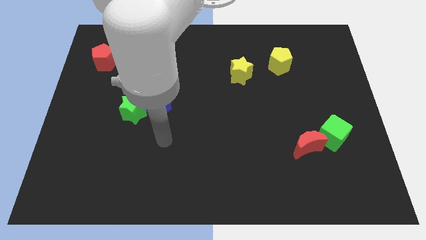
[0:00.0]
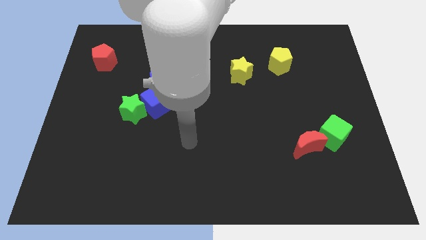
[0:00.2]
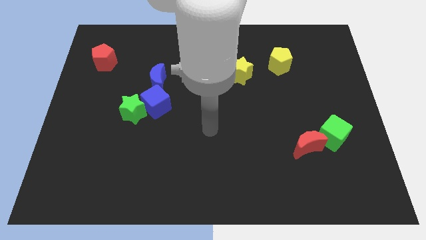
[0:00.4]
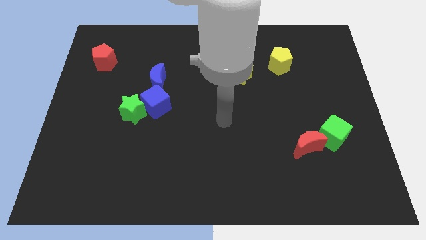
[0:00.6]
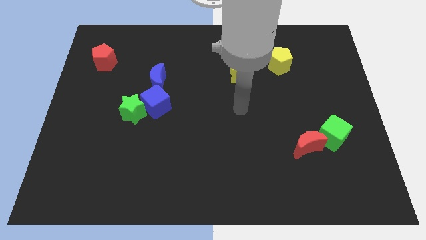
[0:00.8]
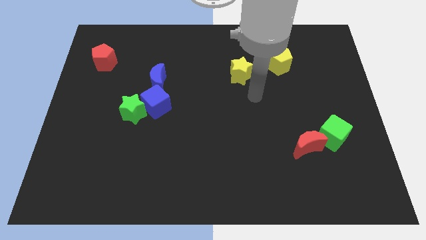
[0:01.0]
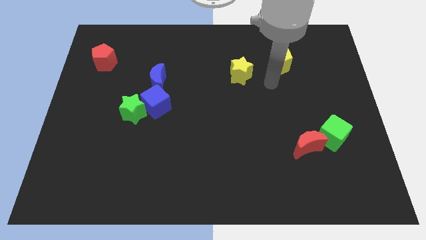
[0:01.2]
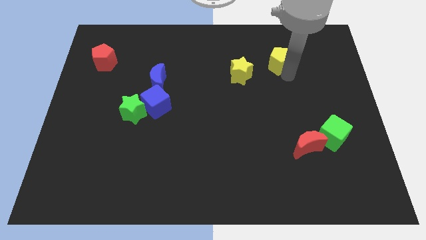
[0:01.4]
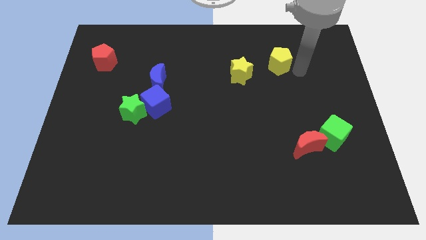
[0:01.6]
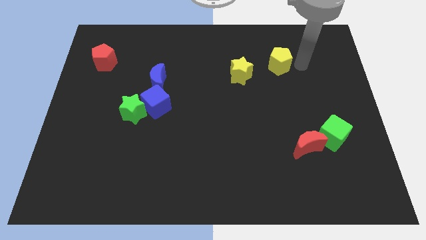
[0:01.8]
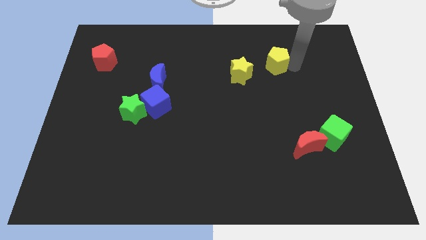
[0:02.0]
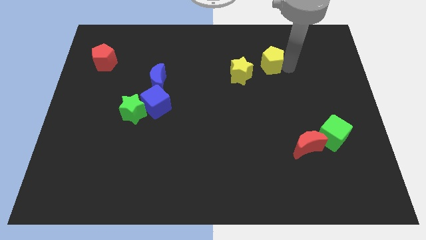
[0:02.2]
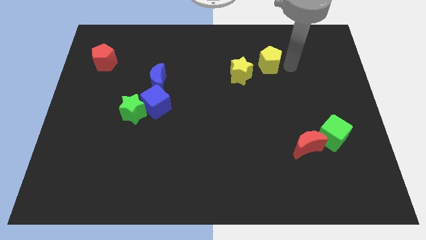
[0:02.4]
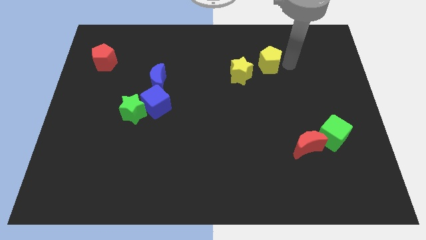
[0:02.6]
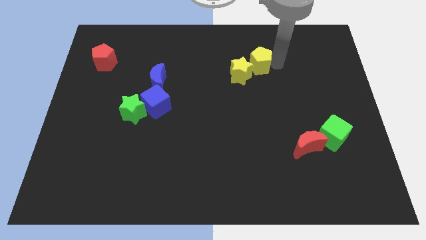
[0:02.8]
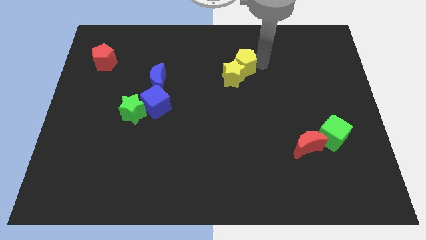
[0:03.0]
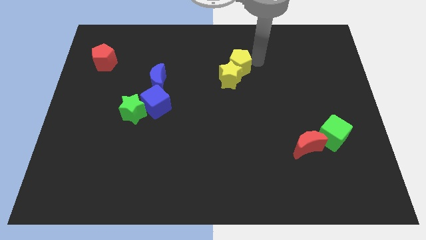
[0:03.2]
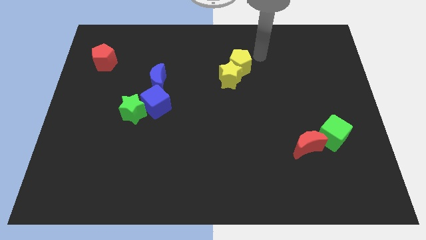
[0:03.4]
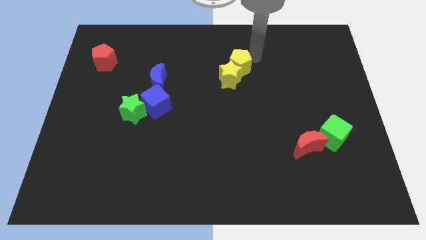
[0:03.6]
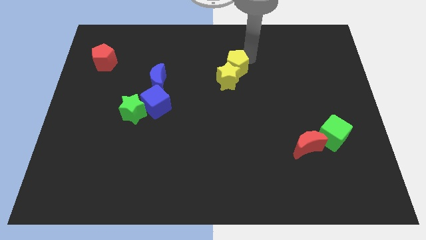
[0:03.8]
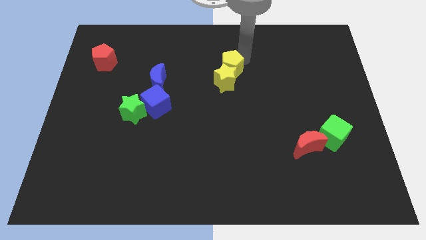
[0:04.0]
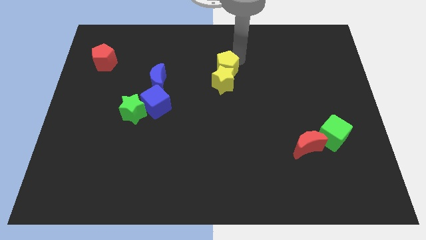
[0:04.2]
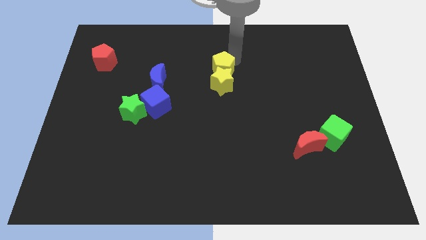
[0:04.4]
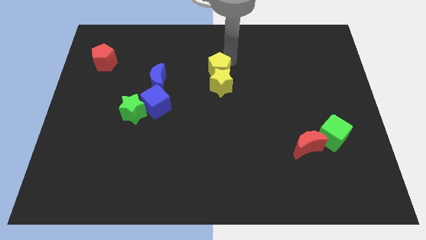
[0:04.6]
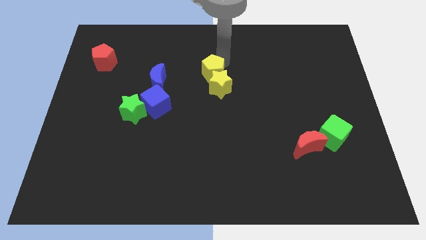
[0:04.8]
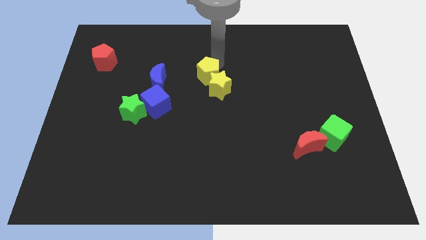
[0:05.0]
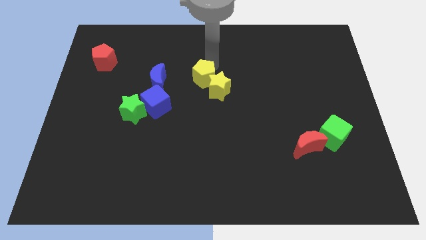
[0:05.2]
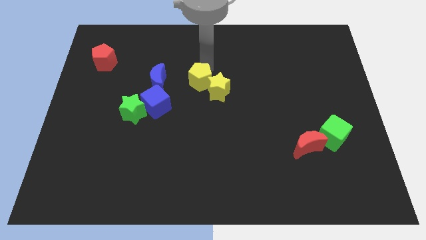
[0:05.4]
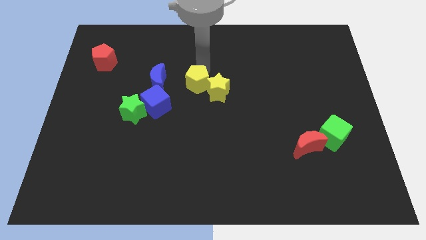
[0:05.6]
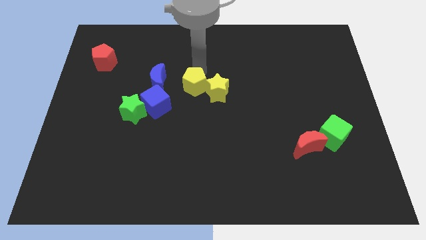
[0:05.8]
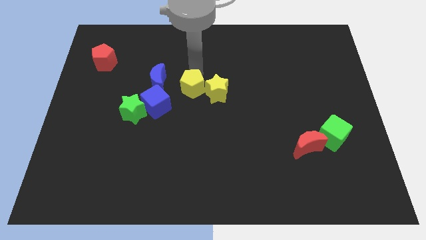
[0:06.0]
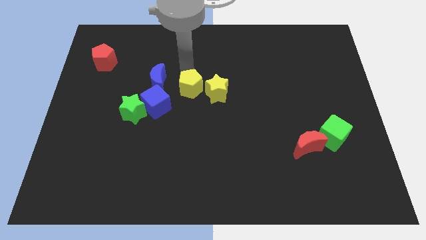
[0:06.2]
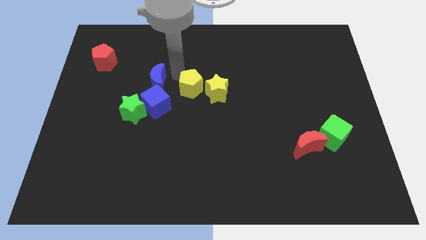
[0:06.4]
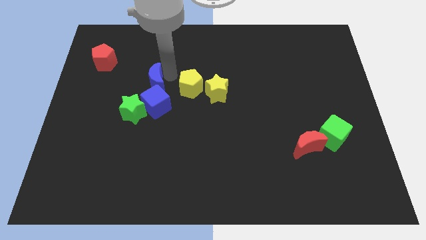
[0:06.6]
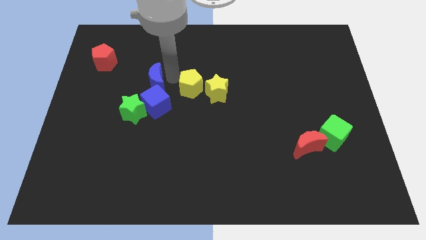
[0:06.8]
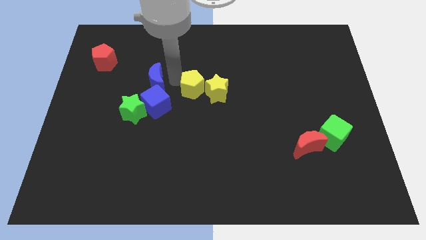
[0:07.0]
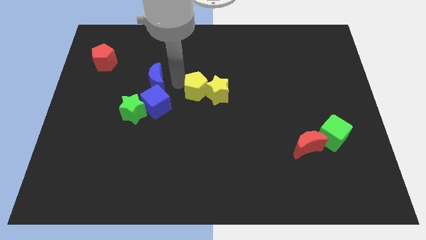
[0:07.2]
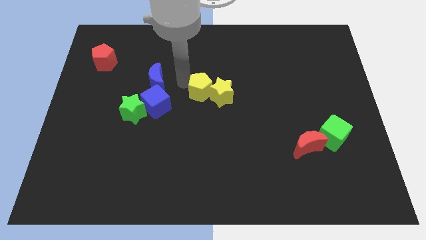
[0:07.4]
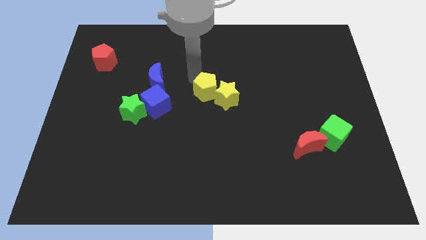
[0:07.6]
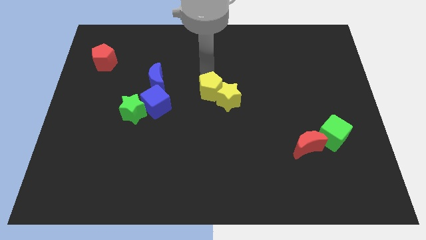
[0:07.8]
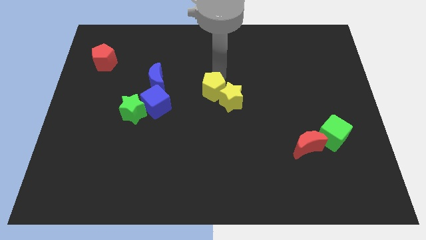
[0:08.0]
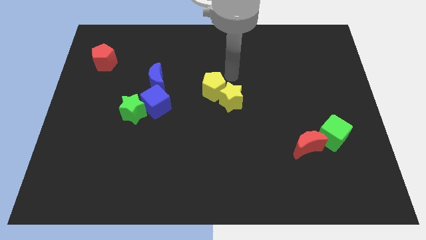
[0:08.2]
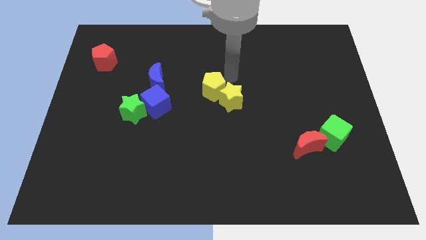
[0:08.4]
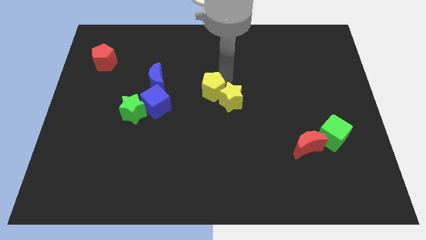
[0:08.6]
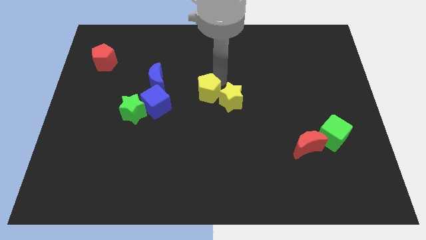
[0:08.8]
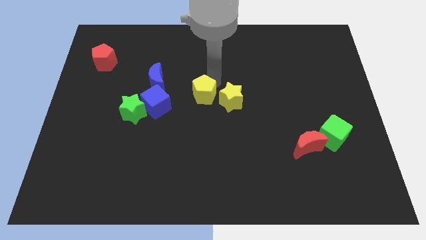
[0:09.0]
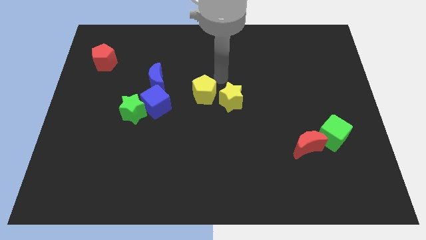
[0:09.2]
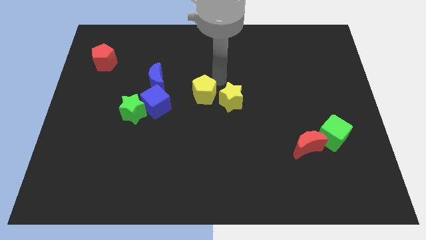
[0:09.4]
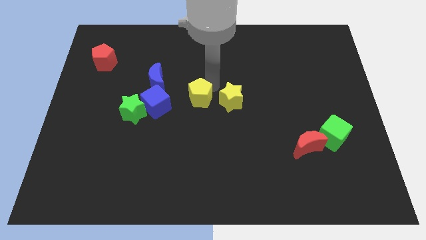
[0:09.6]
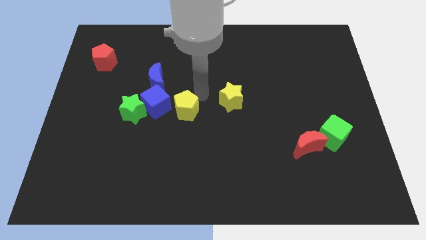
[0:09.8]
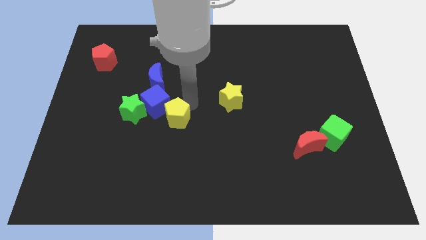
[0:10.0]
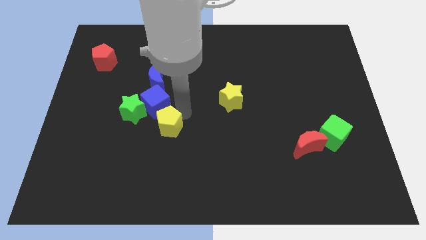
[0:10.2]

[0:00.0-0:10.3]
slide the yellow pentagon to the bottom side of the blue moon

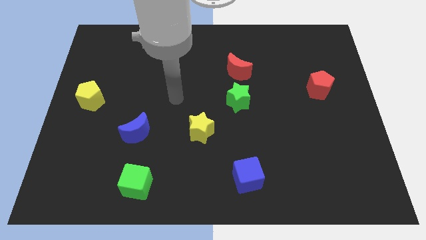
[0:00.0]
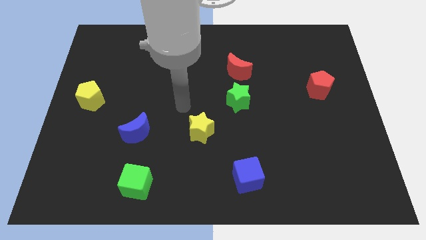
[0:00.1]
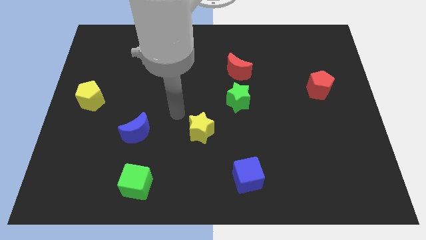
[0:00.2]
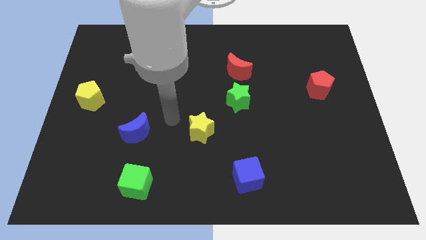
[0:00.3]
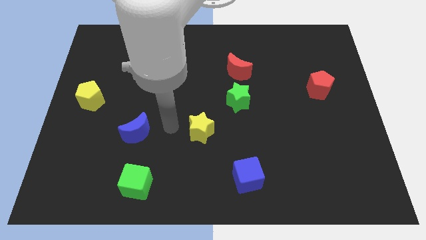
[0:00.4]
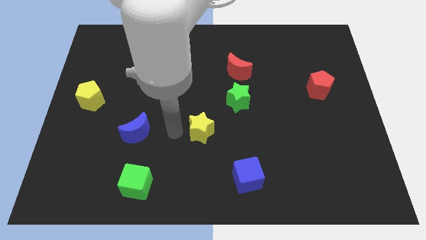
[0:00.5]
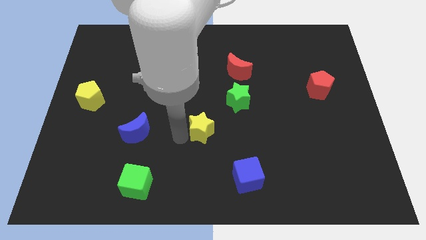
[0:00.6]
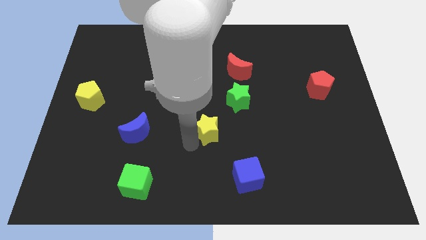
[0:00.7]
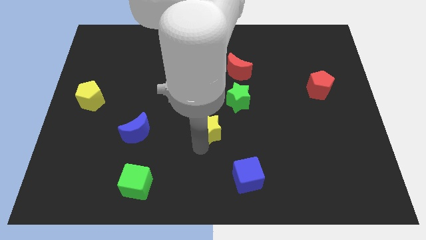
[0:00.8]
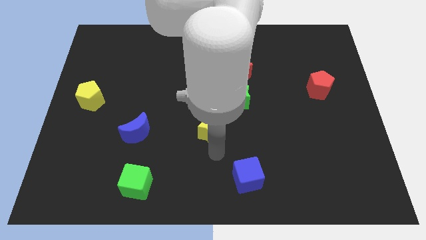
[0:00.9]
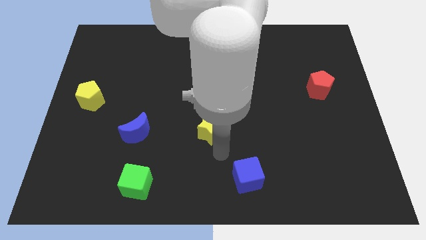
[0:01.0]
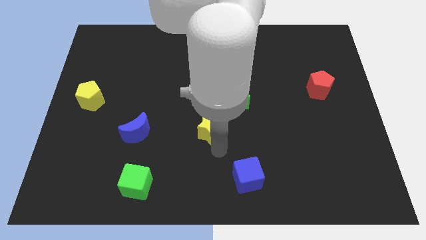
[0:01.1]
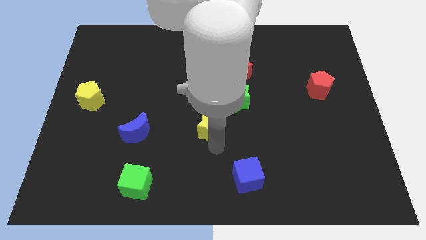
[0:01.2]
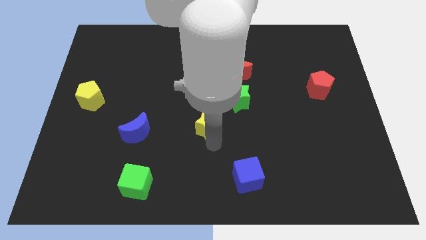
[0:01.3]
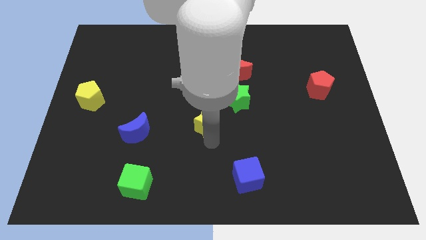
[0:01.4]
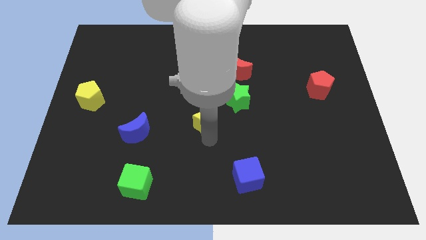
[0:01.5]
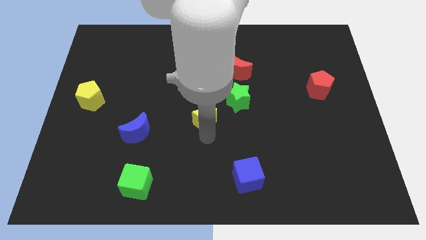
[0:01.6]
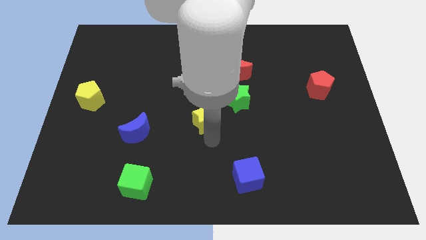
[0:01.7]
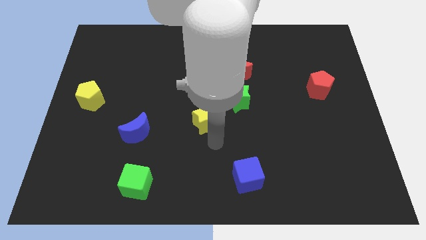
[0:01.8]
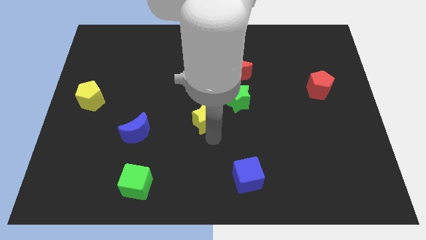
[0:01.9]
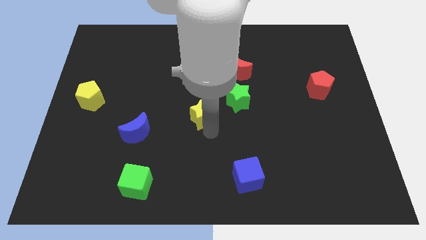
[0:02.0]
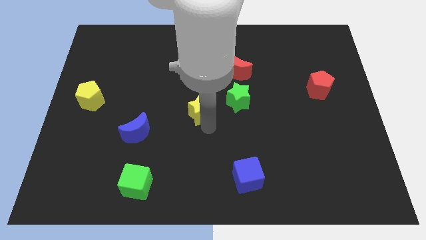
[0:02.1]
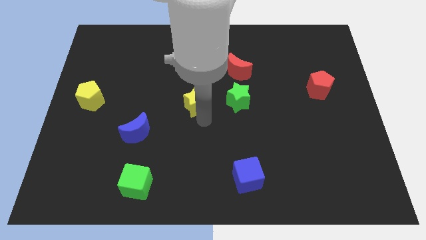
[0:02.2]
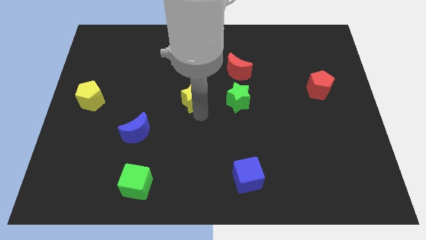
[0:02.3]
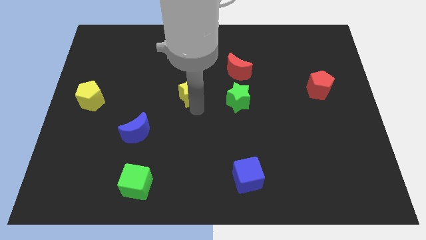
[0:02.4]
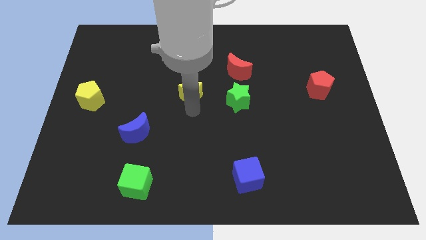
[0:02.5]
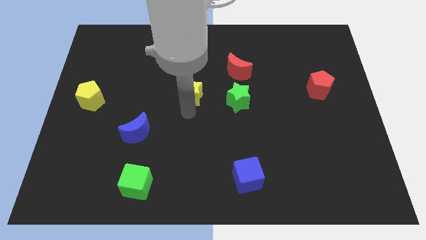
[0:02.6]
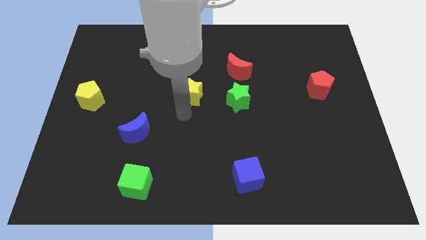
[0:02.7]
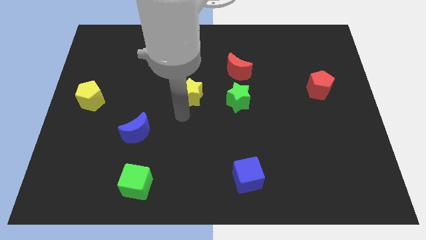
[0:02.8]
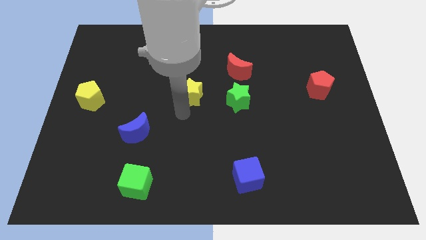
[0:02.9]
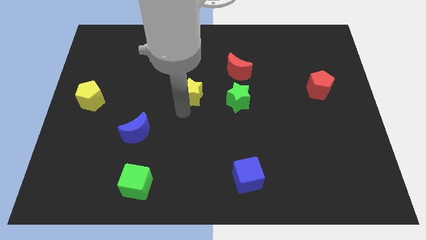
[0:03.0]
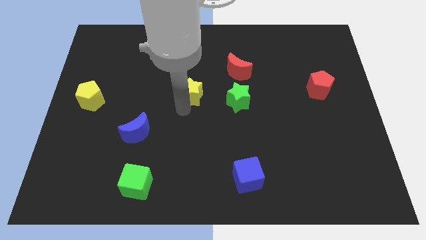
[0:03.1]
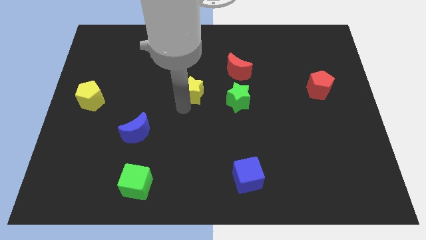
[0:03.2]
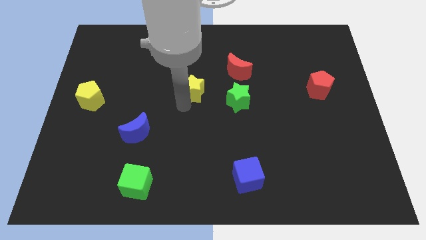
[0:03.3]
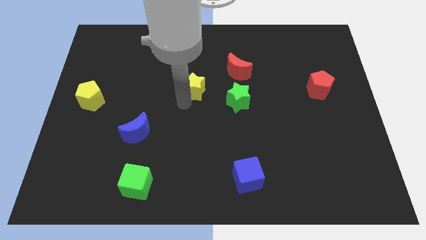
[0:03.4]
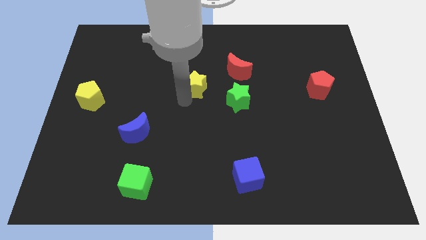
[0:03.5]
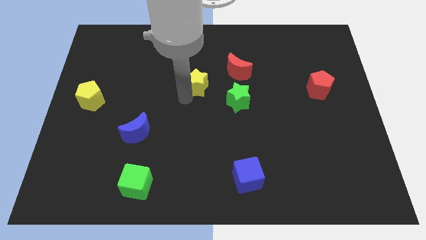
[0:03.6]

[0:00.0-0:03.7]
slide the yellow star to the left of the red moon
